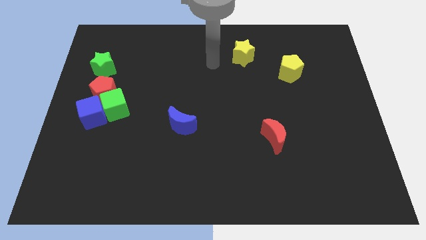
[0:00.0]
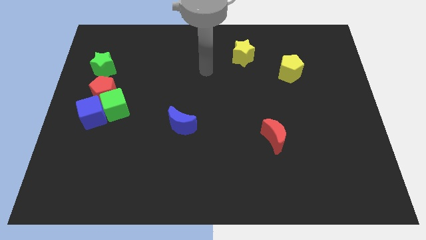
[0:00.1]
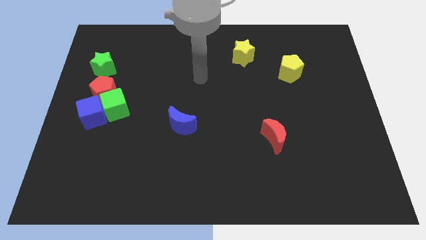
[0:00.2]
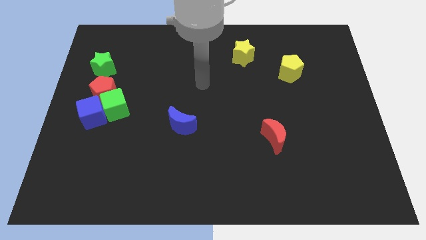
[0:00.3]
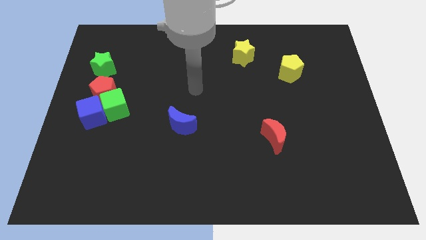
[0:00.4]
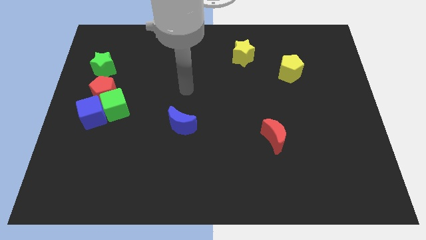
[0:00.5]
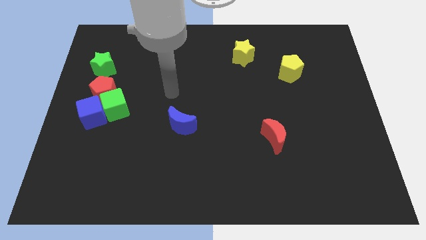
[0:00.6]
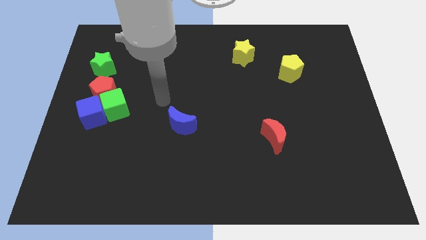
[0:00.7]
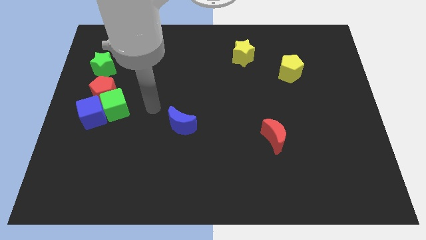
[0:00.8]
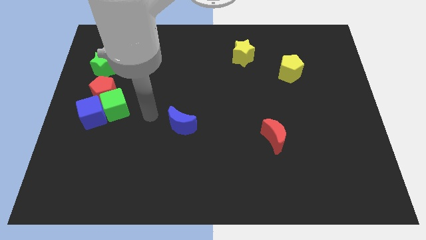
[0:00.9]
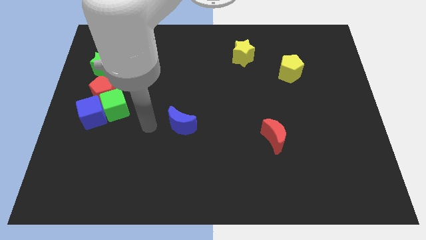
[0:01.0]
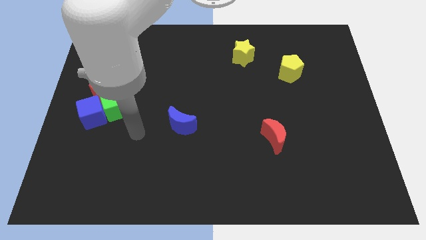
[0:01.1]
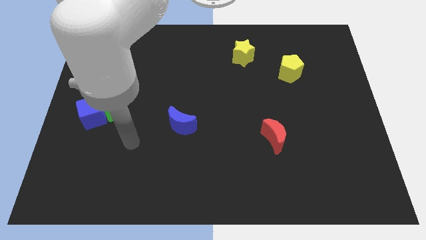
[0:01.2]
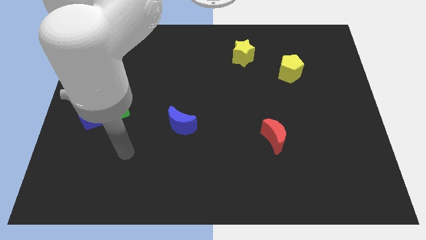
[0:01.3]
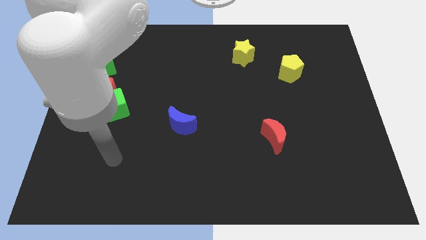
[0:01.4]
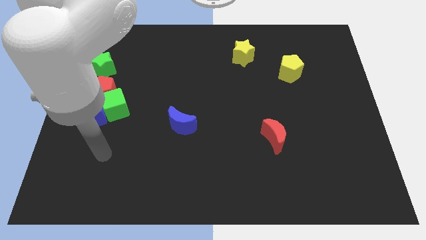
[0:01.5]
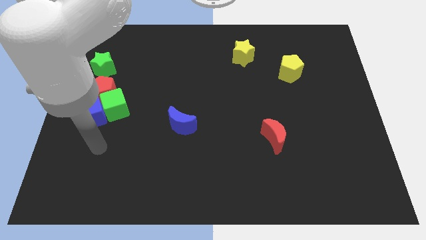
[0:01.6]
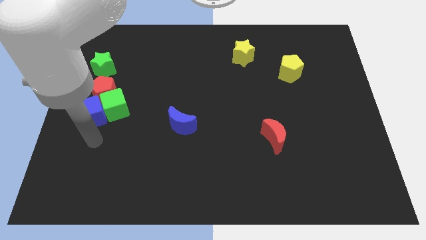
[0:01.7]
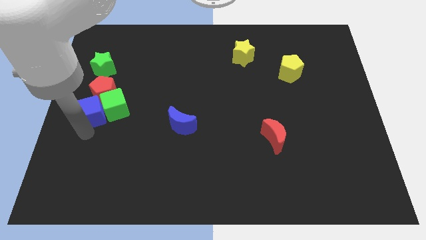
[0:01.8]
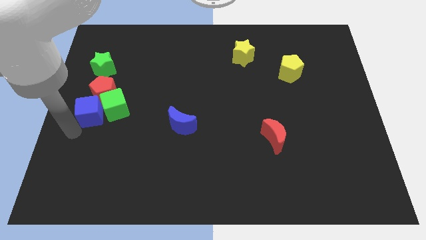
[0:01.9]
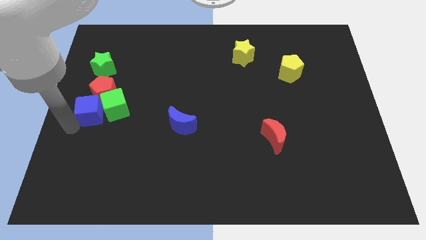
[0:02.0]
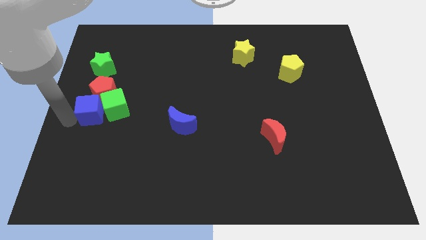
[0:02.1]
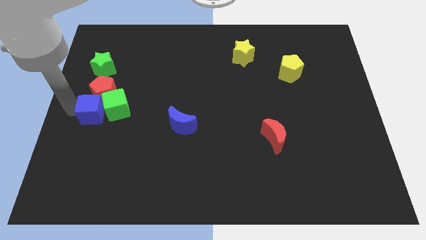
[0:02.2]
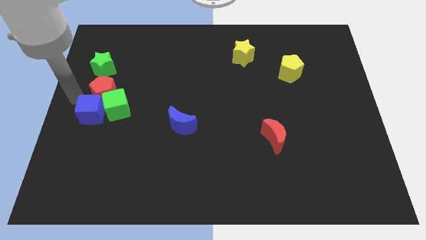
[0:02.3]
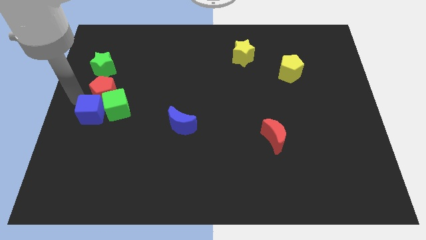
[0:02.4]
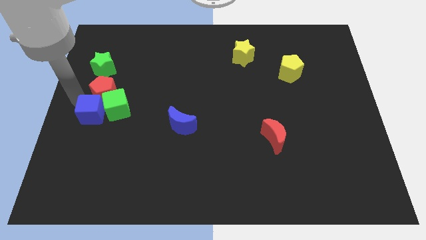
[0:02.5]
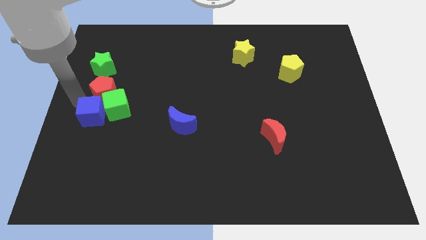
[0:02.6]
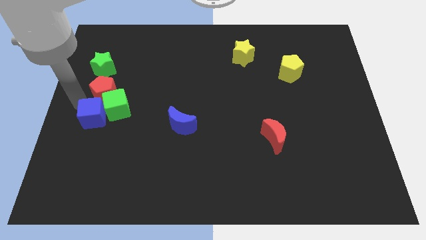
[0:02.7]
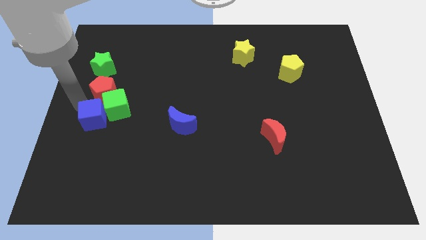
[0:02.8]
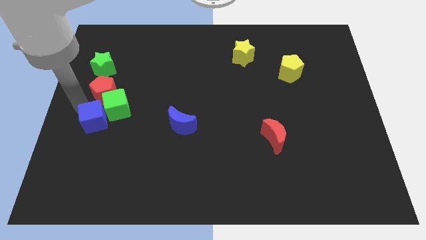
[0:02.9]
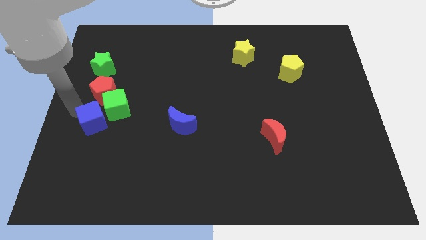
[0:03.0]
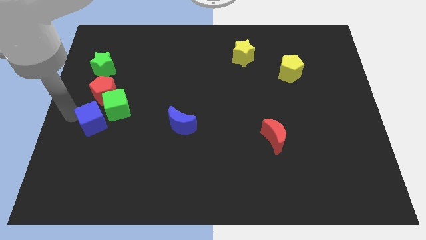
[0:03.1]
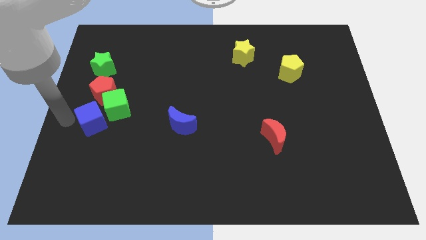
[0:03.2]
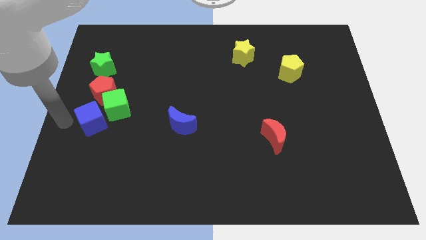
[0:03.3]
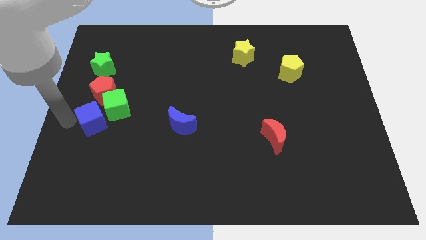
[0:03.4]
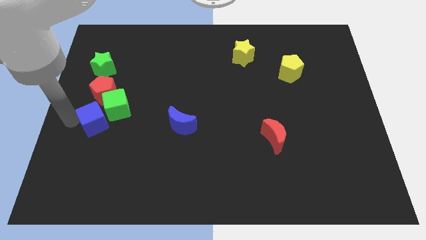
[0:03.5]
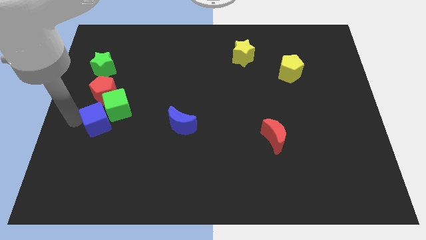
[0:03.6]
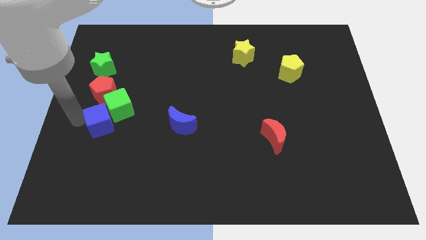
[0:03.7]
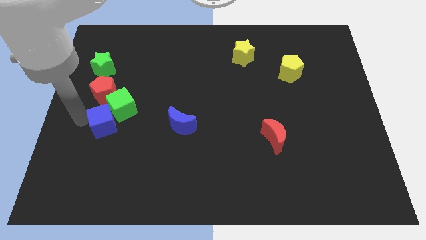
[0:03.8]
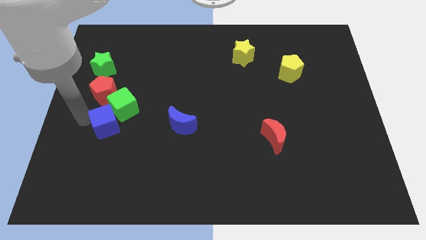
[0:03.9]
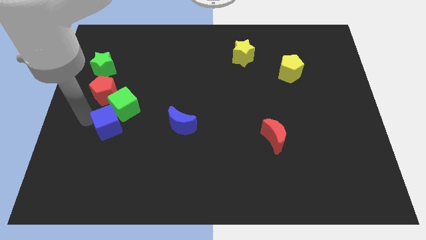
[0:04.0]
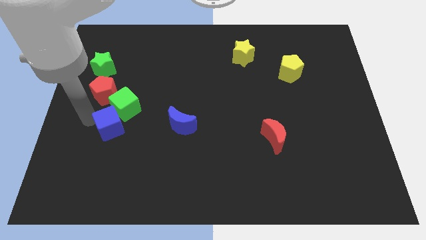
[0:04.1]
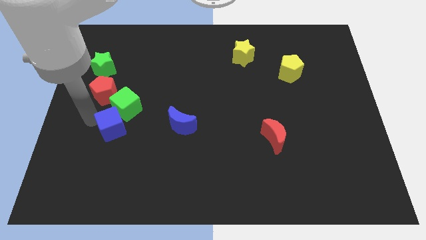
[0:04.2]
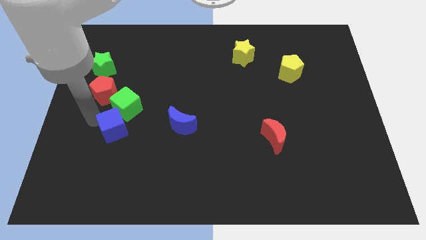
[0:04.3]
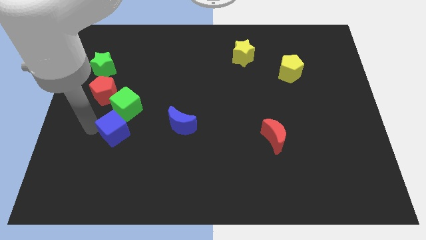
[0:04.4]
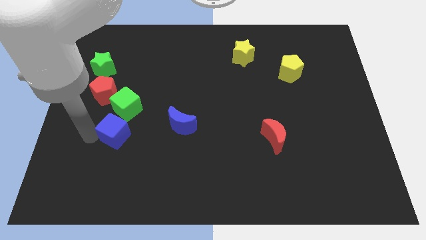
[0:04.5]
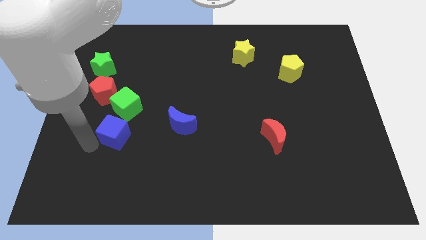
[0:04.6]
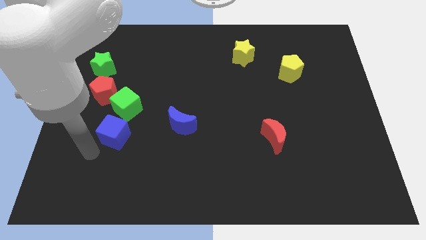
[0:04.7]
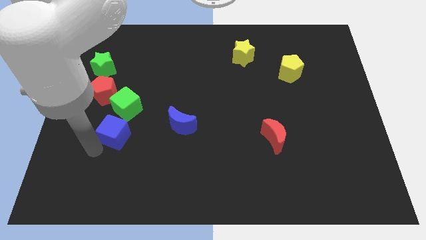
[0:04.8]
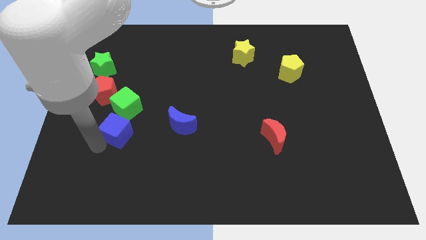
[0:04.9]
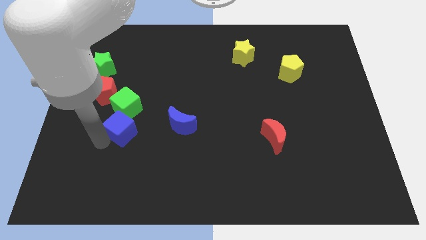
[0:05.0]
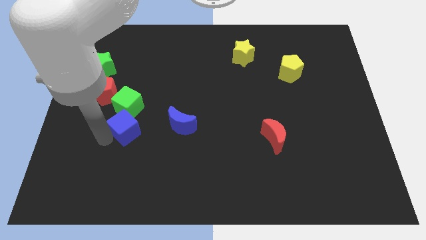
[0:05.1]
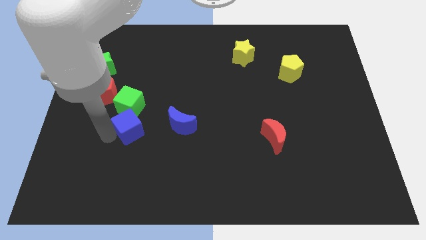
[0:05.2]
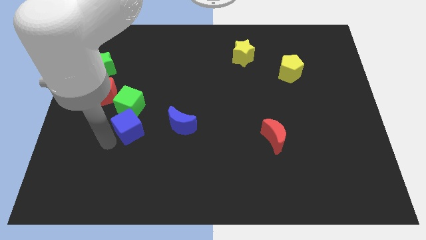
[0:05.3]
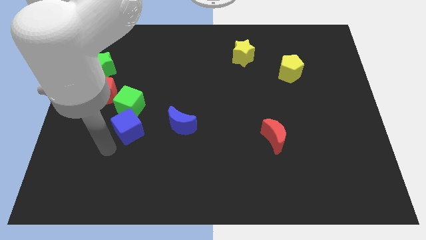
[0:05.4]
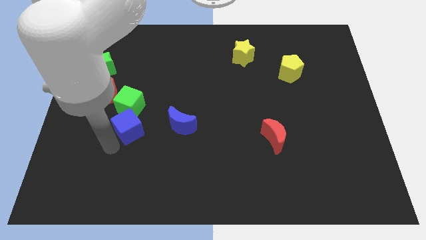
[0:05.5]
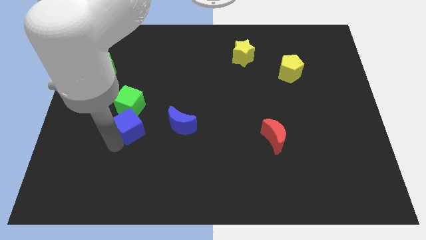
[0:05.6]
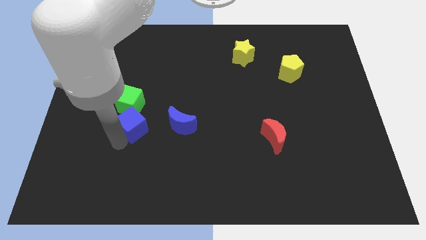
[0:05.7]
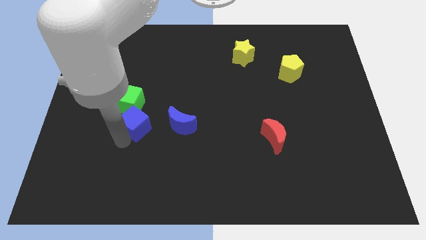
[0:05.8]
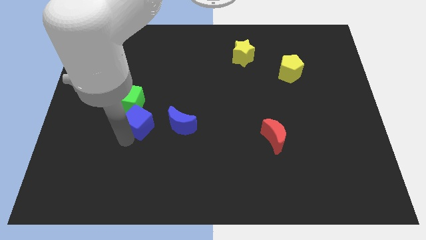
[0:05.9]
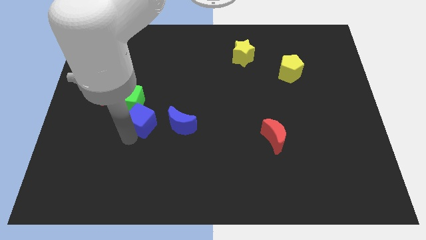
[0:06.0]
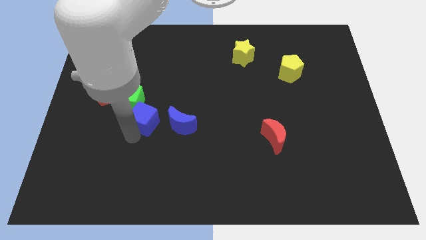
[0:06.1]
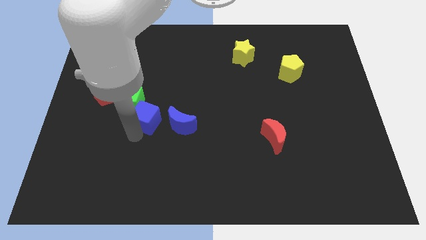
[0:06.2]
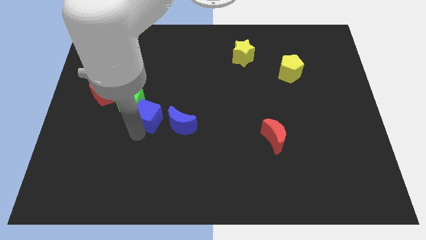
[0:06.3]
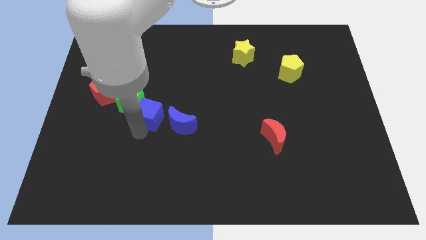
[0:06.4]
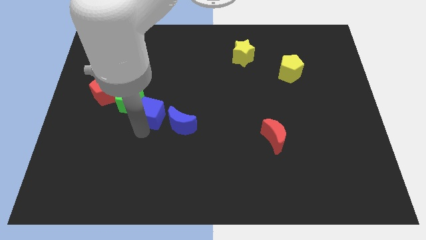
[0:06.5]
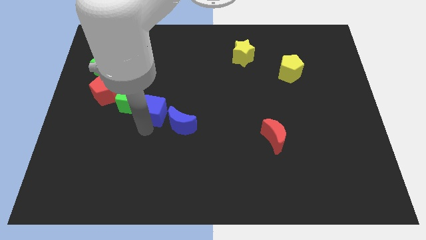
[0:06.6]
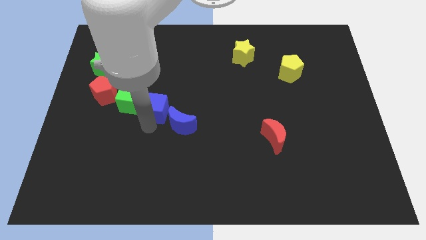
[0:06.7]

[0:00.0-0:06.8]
slide the blue cube a bit up and then to the right

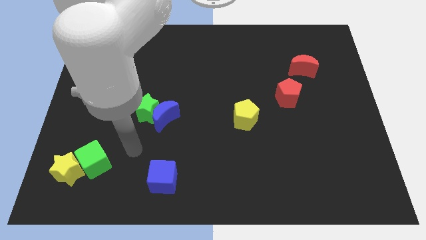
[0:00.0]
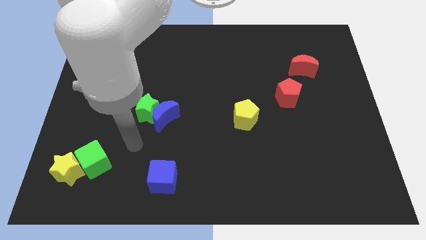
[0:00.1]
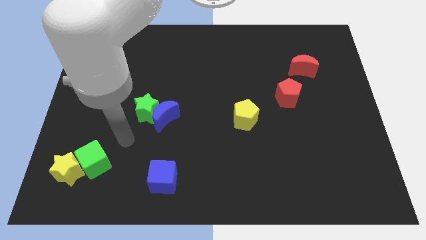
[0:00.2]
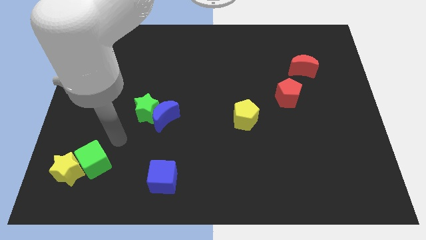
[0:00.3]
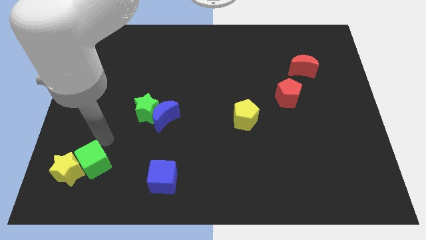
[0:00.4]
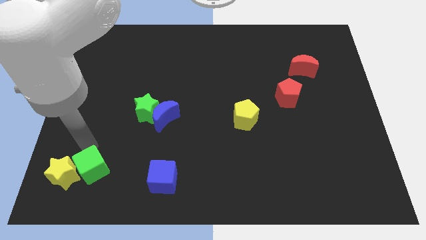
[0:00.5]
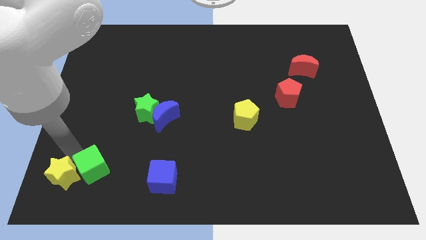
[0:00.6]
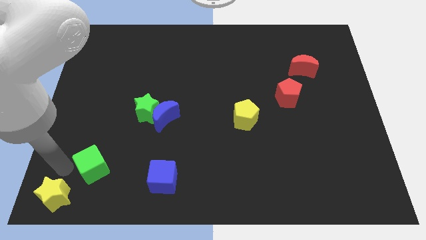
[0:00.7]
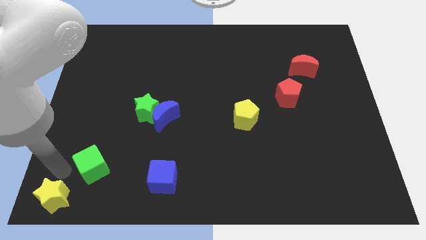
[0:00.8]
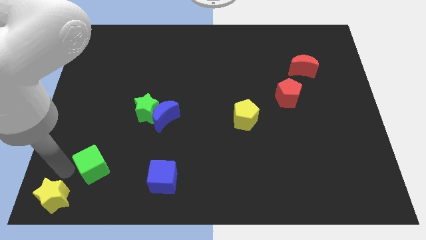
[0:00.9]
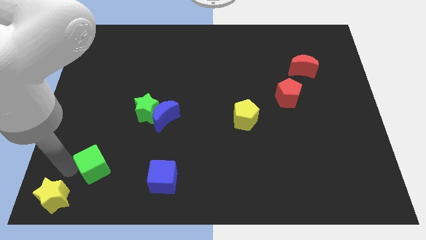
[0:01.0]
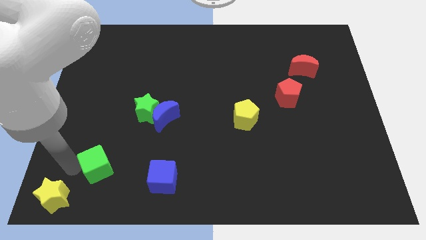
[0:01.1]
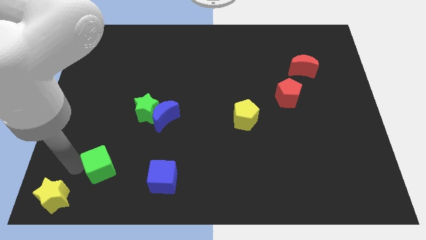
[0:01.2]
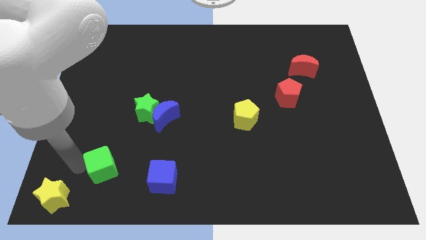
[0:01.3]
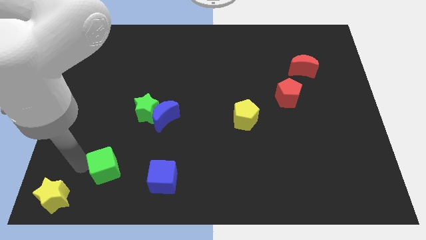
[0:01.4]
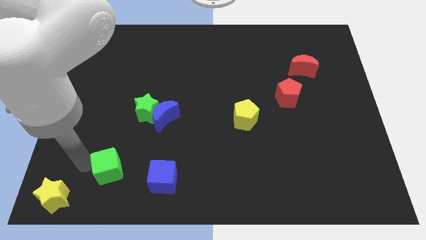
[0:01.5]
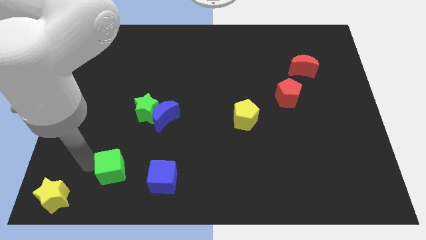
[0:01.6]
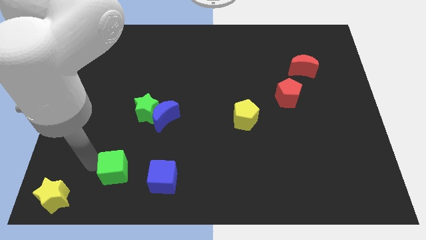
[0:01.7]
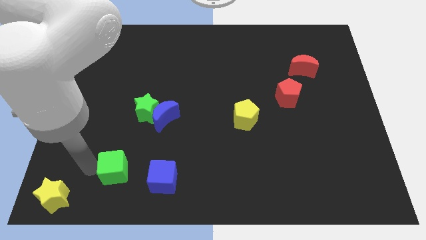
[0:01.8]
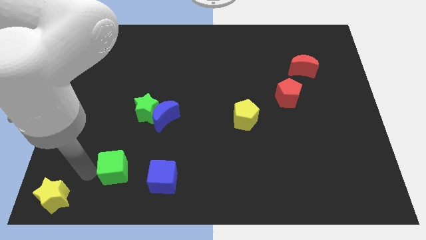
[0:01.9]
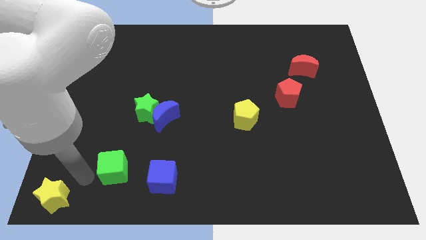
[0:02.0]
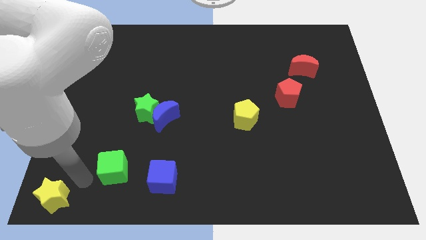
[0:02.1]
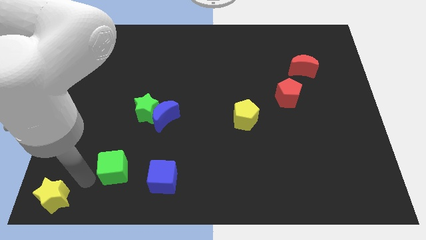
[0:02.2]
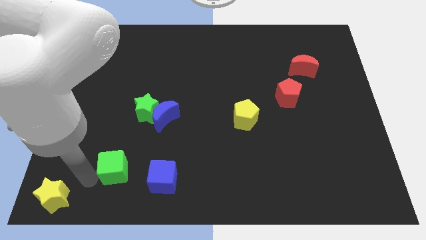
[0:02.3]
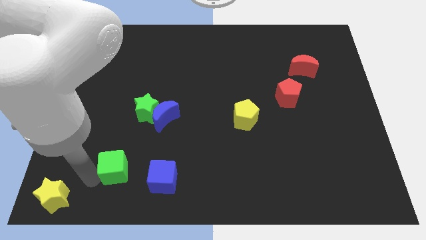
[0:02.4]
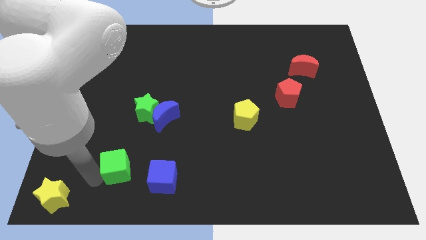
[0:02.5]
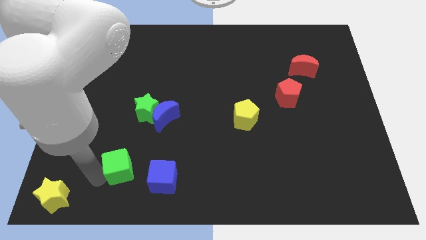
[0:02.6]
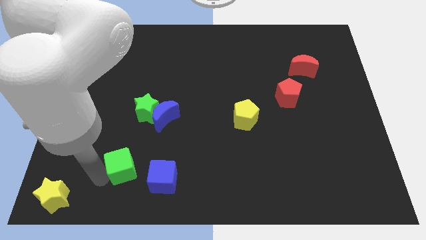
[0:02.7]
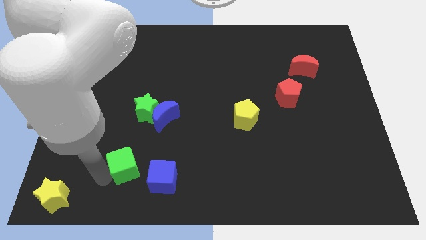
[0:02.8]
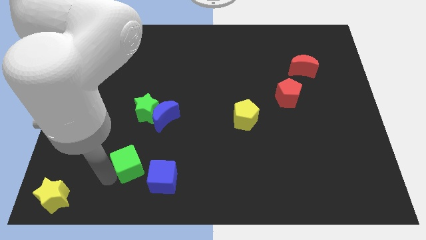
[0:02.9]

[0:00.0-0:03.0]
move the green cube right a bit
